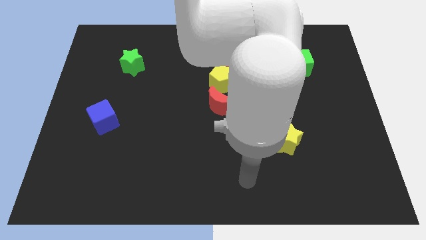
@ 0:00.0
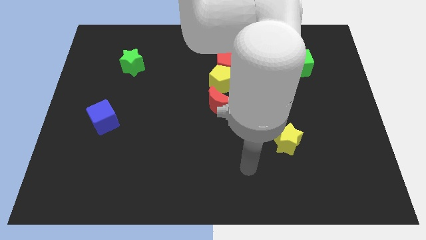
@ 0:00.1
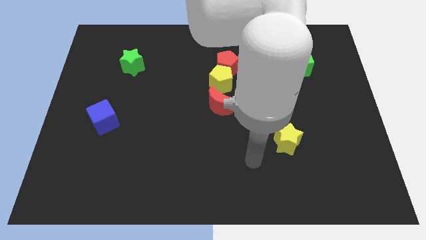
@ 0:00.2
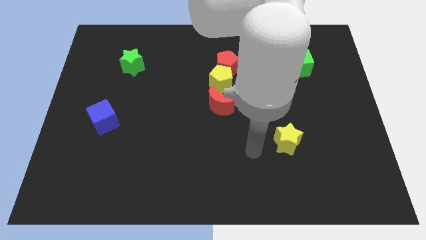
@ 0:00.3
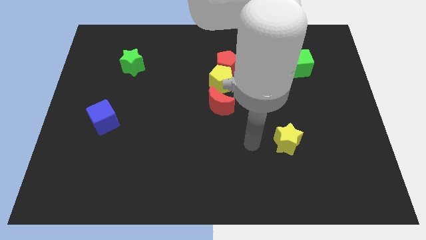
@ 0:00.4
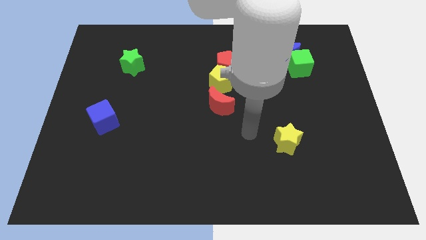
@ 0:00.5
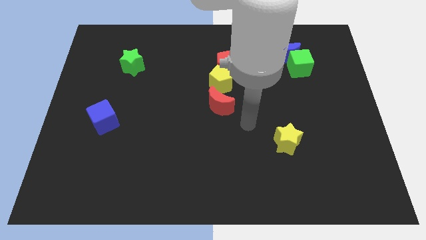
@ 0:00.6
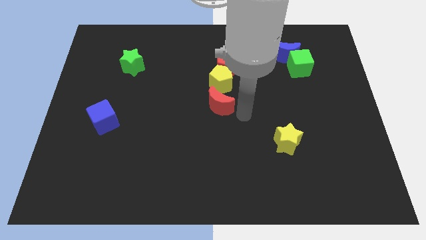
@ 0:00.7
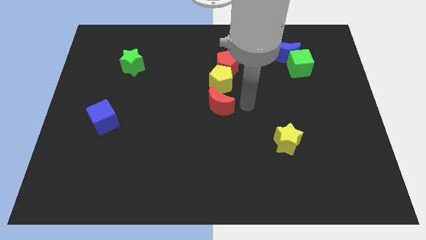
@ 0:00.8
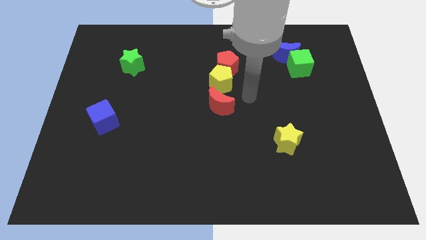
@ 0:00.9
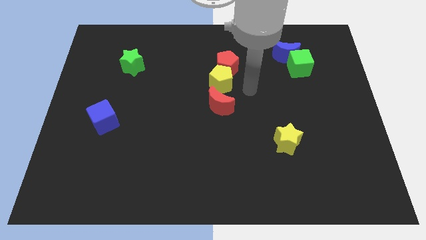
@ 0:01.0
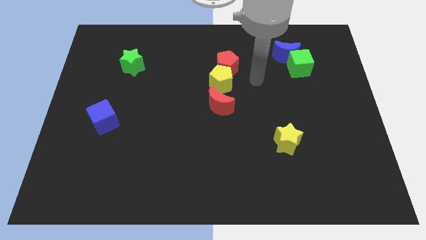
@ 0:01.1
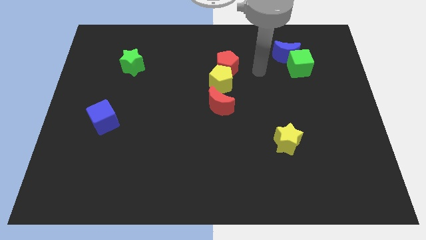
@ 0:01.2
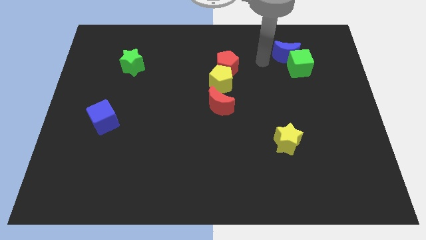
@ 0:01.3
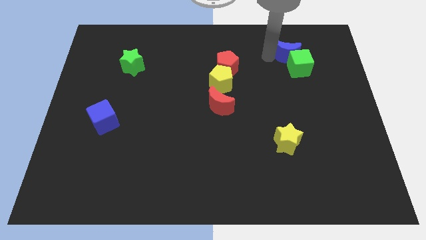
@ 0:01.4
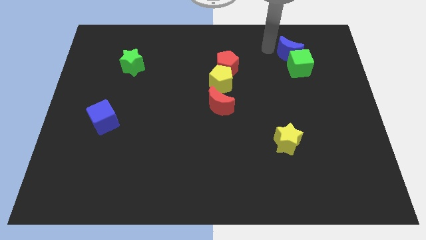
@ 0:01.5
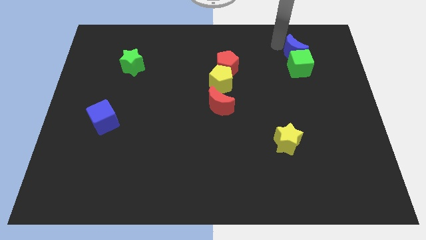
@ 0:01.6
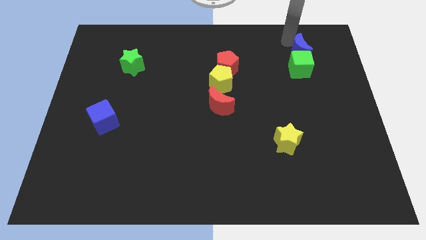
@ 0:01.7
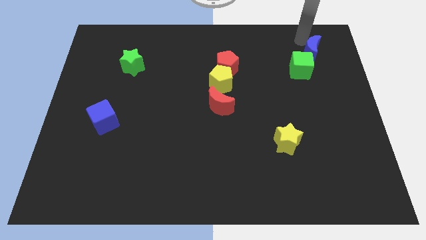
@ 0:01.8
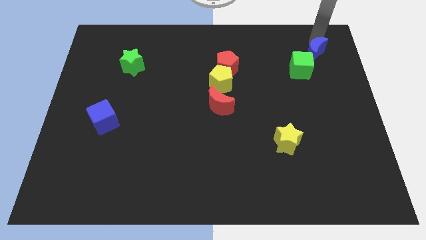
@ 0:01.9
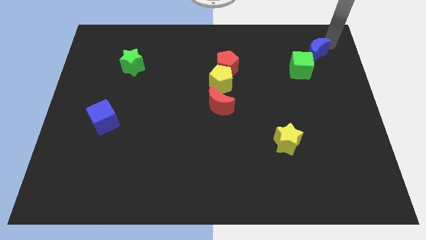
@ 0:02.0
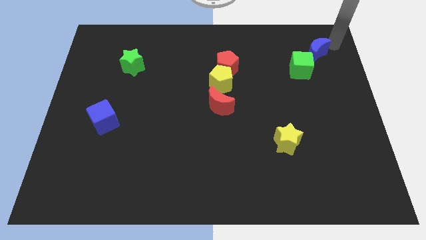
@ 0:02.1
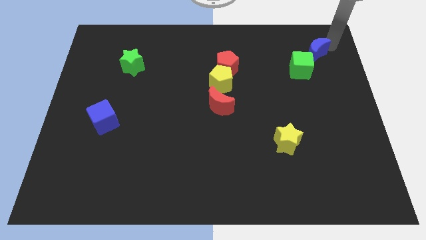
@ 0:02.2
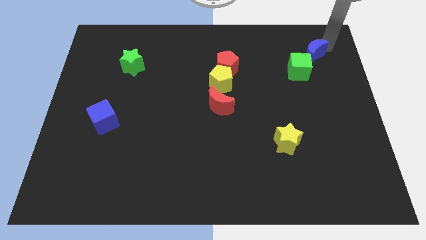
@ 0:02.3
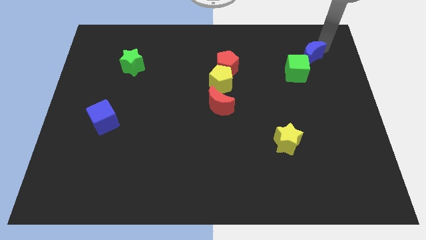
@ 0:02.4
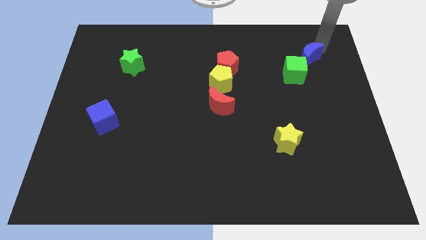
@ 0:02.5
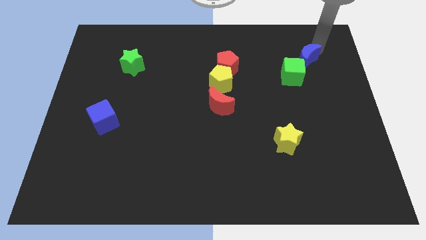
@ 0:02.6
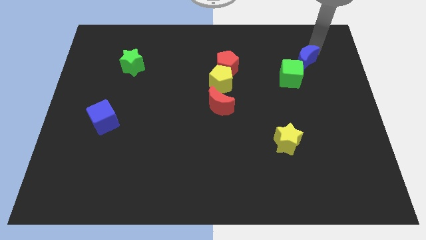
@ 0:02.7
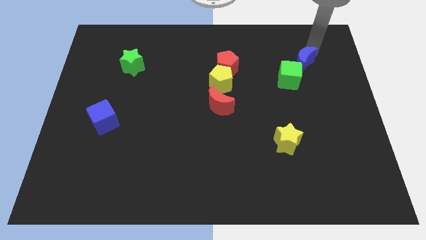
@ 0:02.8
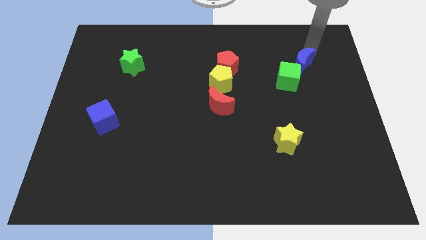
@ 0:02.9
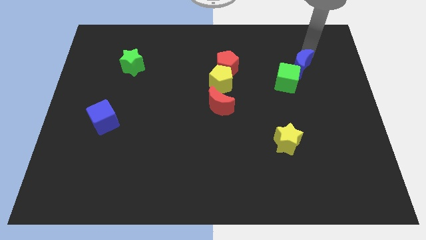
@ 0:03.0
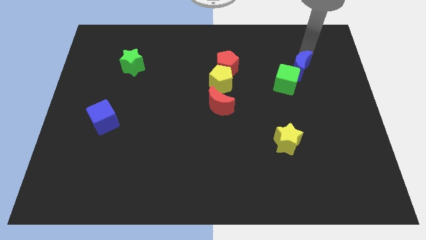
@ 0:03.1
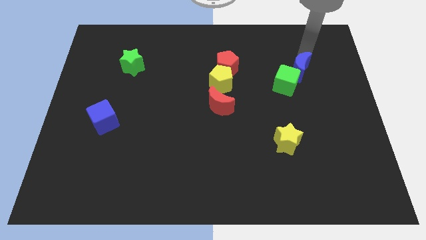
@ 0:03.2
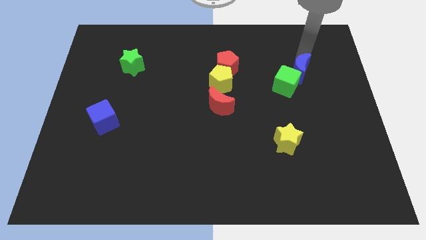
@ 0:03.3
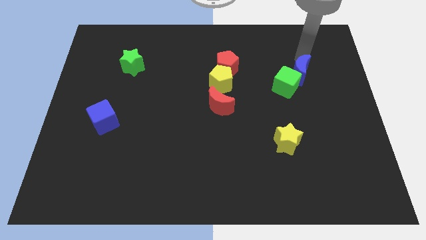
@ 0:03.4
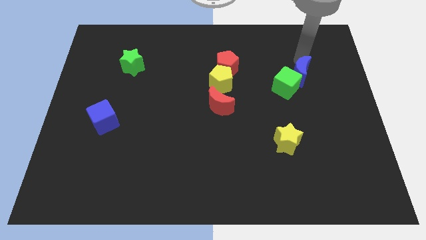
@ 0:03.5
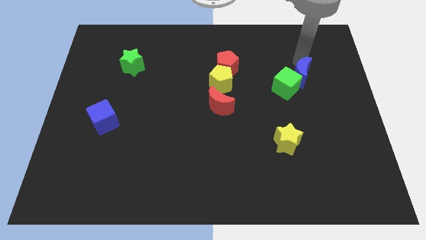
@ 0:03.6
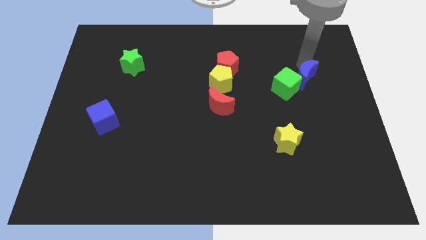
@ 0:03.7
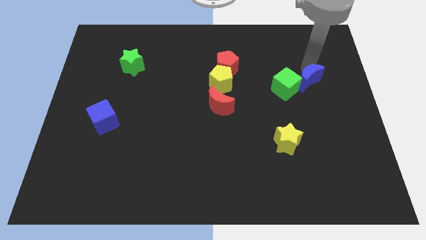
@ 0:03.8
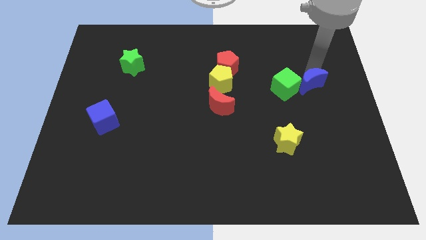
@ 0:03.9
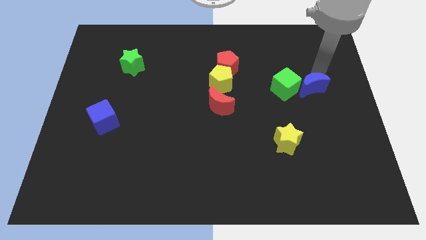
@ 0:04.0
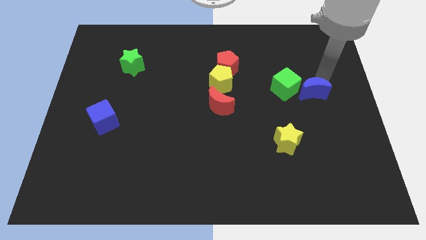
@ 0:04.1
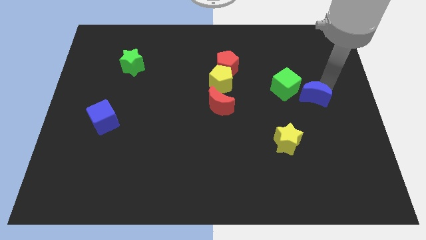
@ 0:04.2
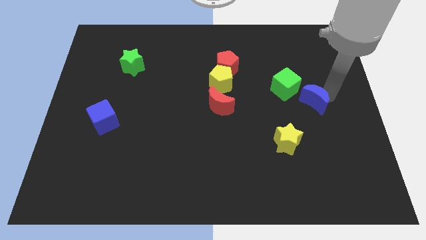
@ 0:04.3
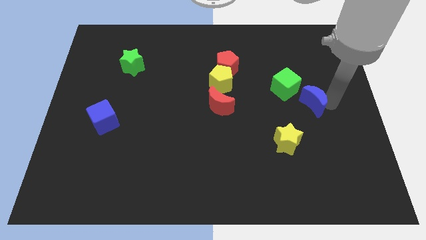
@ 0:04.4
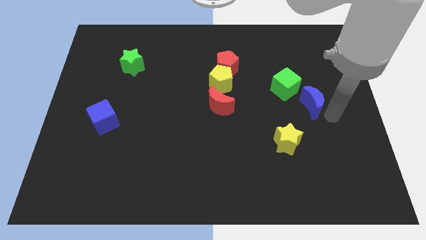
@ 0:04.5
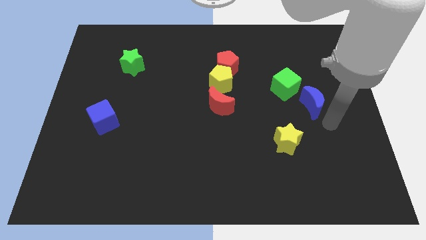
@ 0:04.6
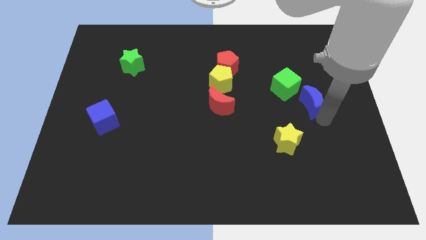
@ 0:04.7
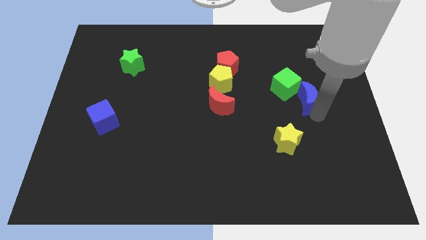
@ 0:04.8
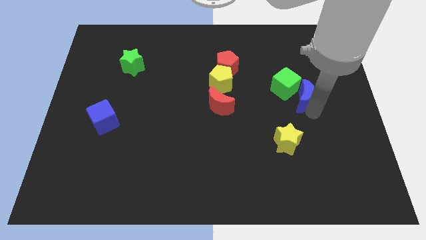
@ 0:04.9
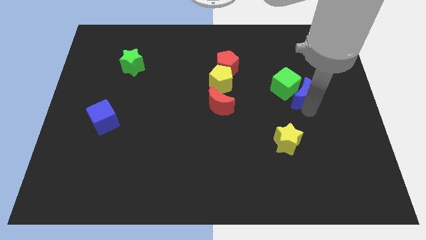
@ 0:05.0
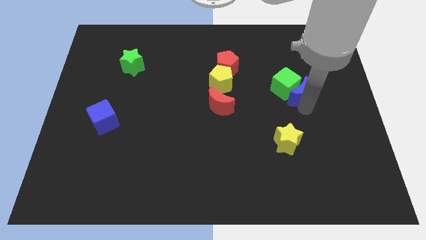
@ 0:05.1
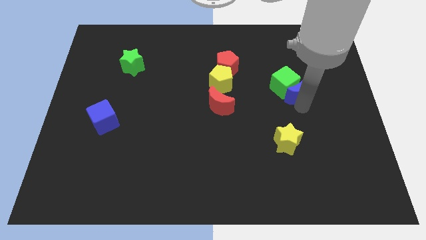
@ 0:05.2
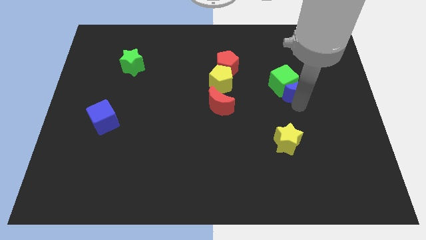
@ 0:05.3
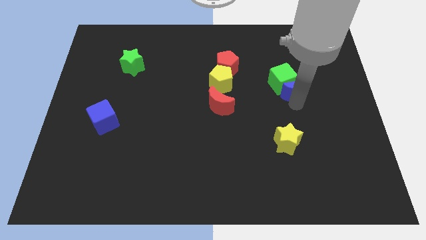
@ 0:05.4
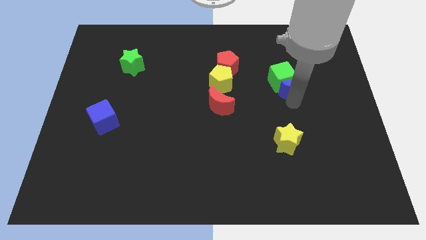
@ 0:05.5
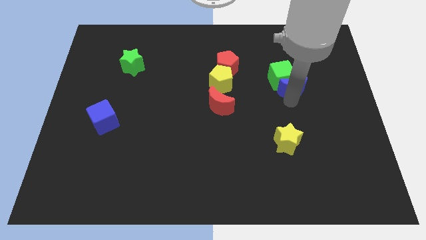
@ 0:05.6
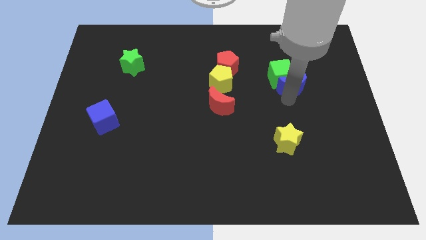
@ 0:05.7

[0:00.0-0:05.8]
slide the blue moon below the green cube

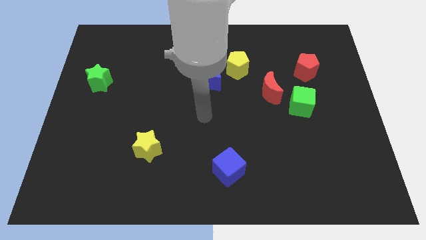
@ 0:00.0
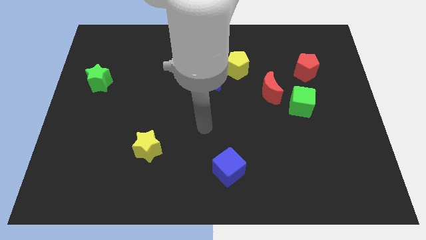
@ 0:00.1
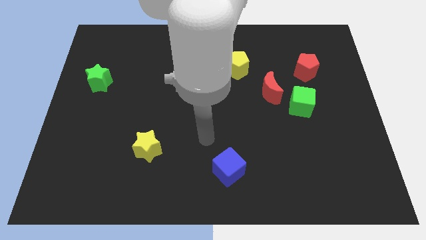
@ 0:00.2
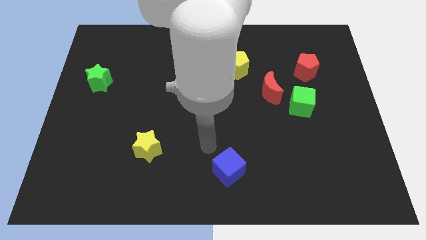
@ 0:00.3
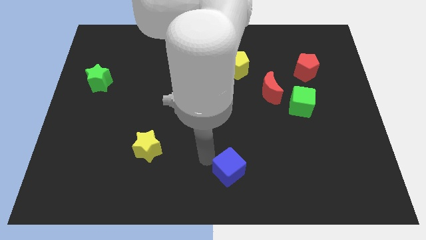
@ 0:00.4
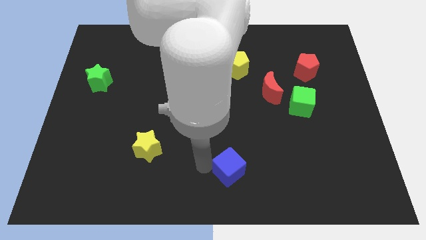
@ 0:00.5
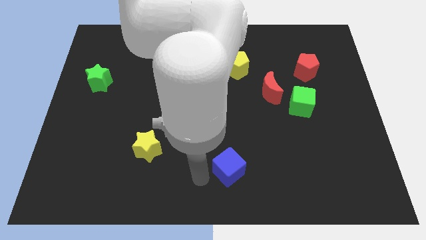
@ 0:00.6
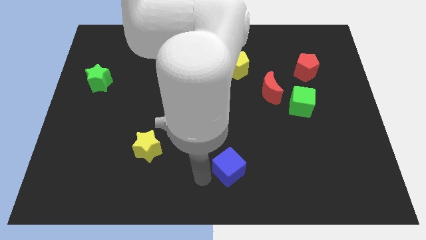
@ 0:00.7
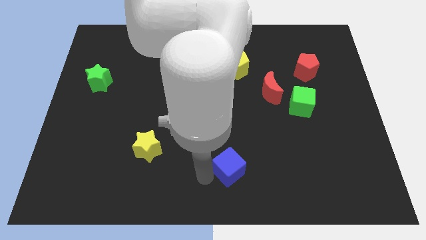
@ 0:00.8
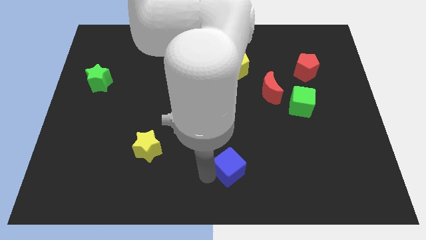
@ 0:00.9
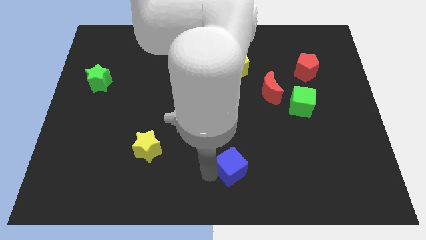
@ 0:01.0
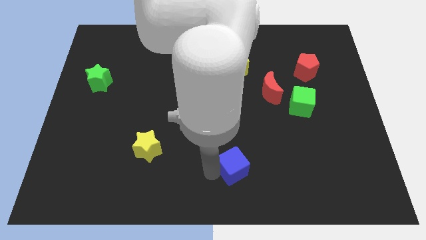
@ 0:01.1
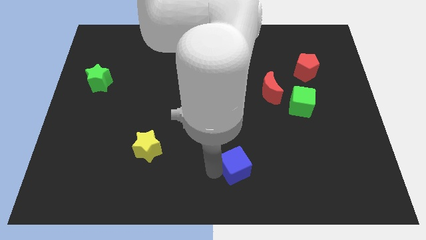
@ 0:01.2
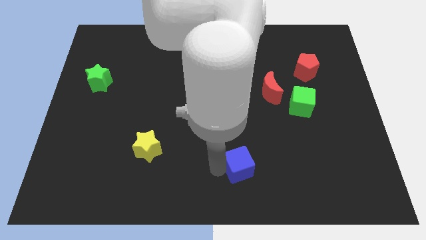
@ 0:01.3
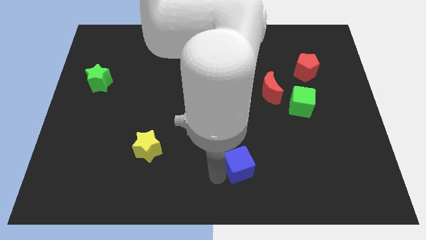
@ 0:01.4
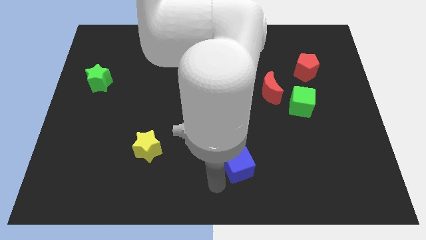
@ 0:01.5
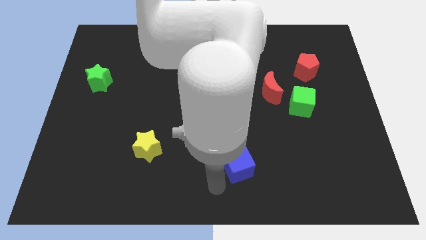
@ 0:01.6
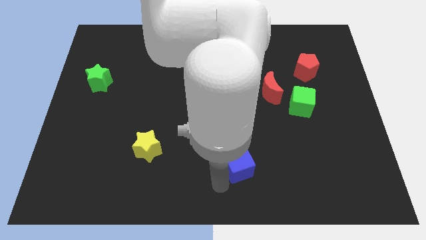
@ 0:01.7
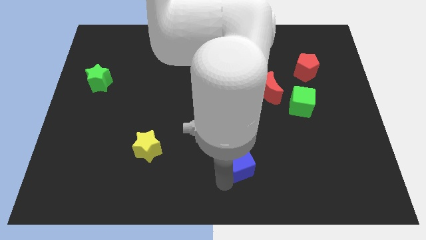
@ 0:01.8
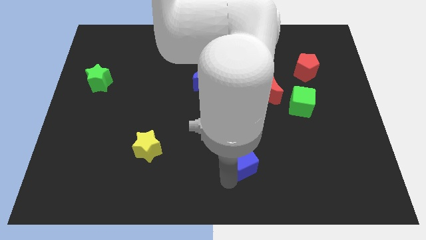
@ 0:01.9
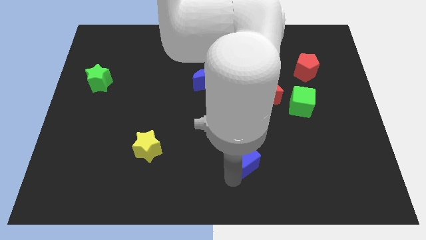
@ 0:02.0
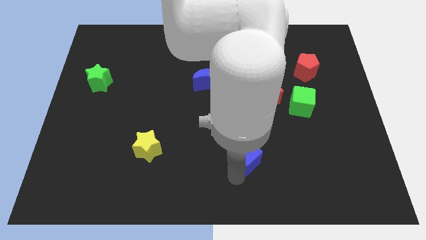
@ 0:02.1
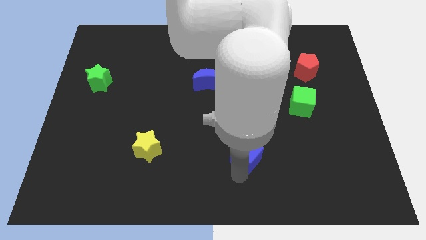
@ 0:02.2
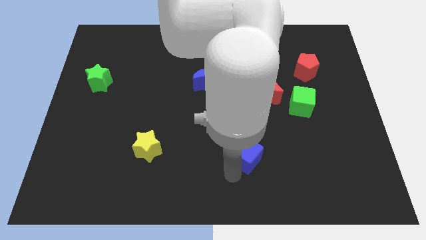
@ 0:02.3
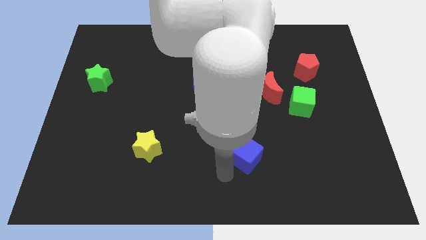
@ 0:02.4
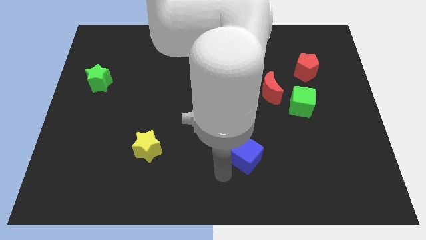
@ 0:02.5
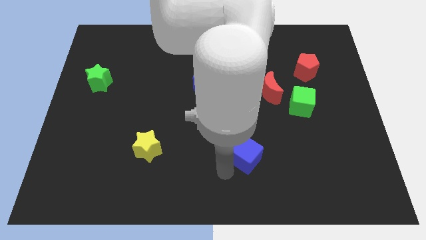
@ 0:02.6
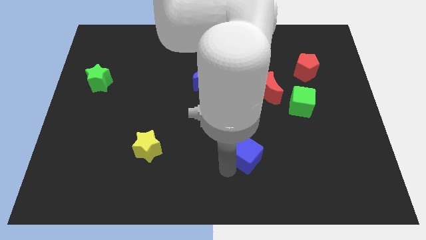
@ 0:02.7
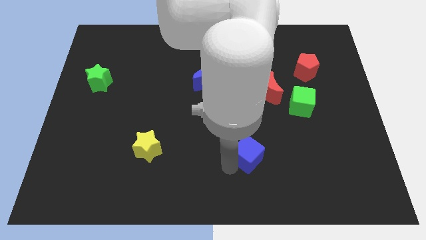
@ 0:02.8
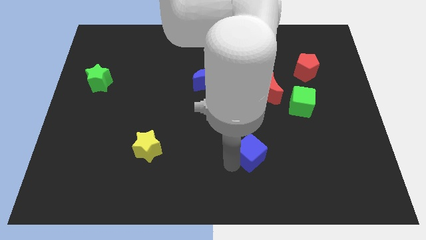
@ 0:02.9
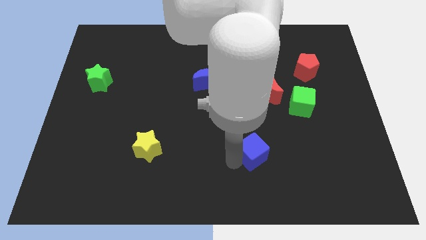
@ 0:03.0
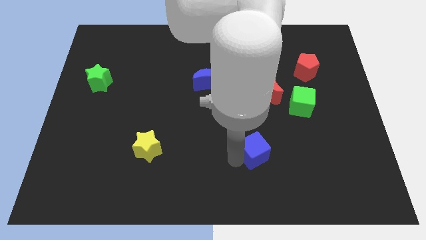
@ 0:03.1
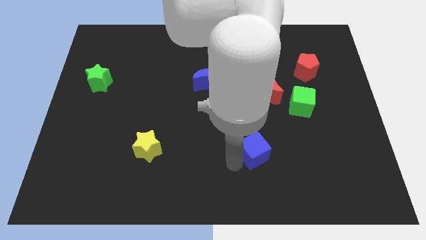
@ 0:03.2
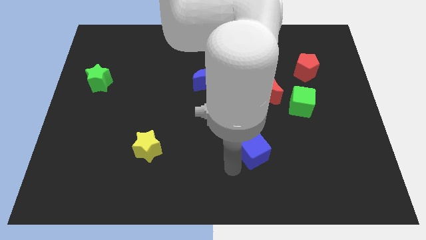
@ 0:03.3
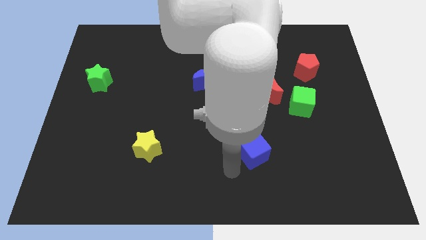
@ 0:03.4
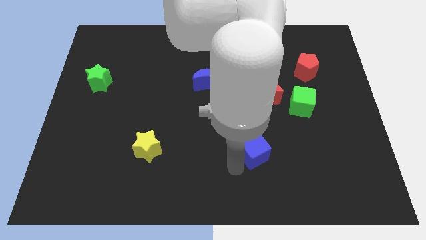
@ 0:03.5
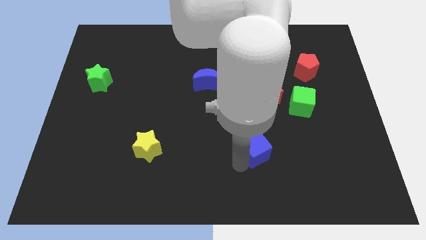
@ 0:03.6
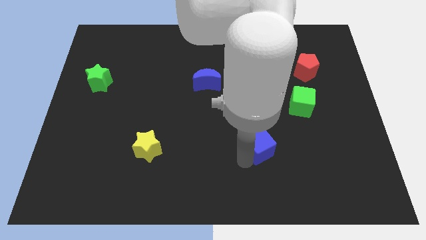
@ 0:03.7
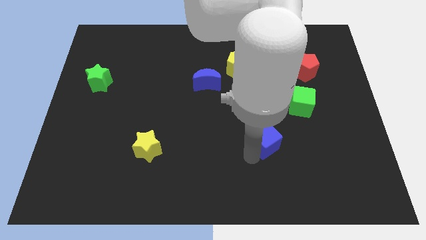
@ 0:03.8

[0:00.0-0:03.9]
push the blue cube to the bottom of the red moon
